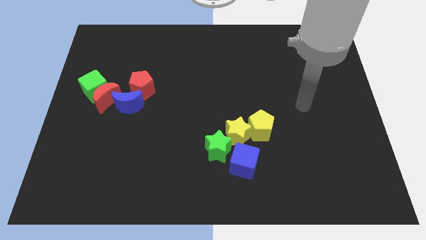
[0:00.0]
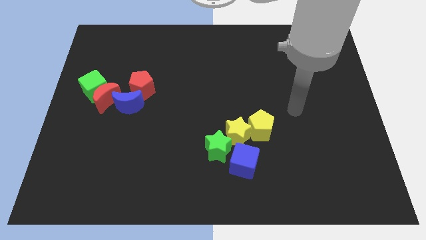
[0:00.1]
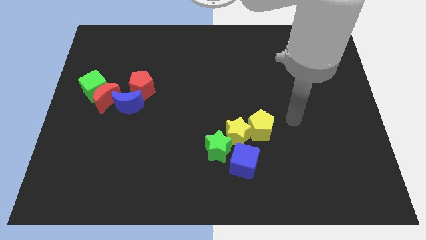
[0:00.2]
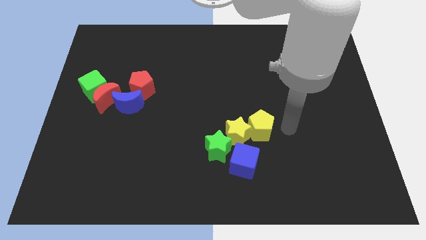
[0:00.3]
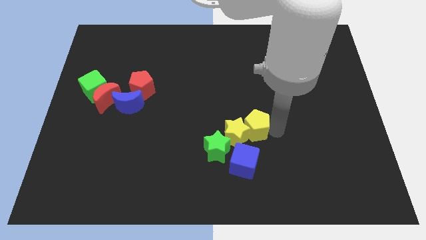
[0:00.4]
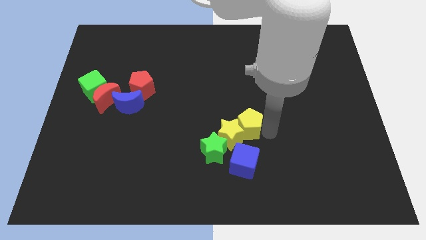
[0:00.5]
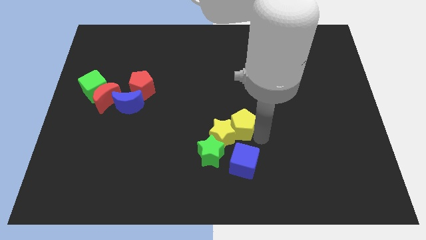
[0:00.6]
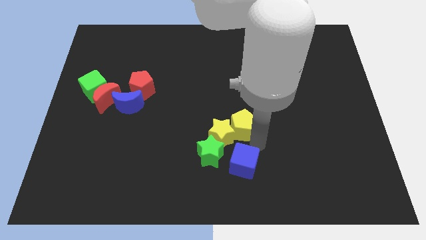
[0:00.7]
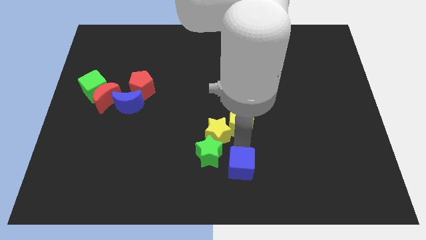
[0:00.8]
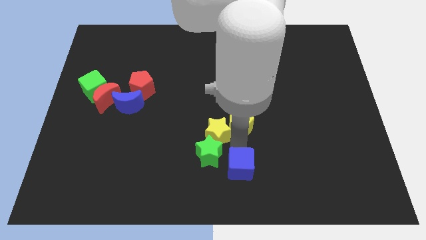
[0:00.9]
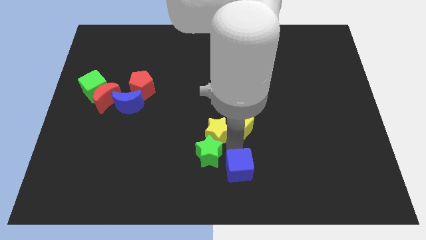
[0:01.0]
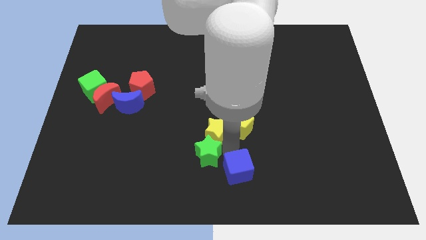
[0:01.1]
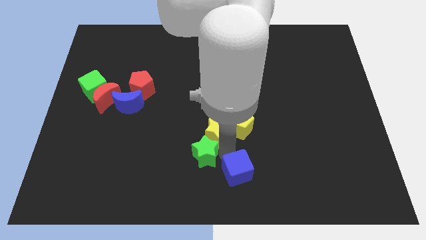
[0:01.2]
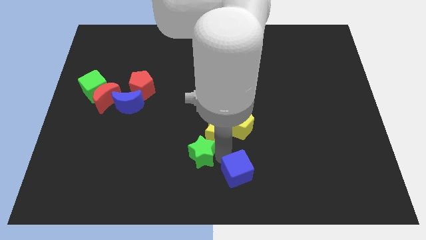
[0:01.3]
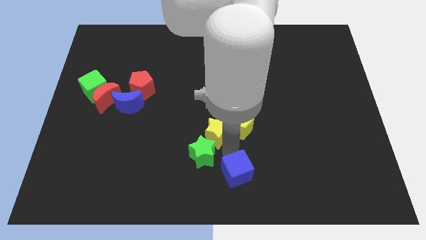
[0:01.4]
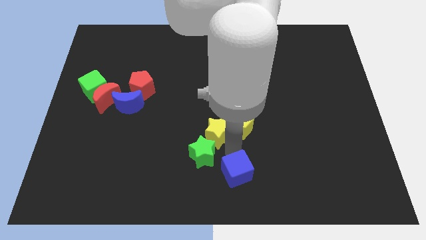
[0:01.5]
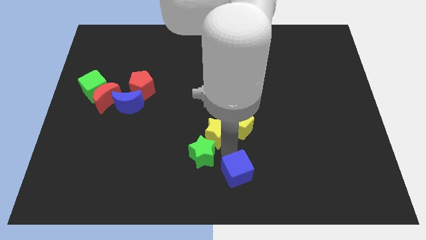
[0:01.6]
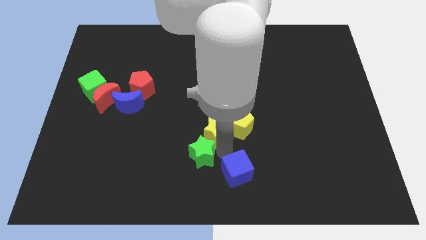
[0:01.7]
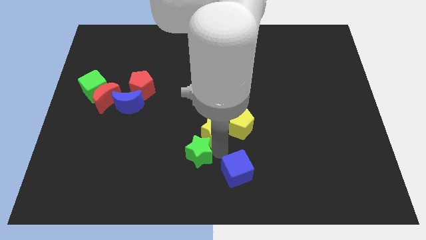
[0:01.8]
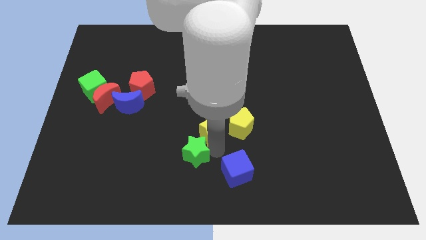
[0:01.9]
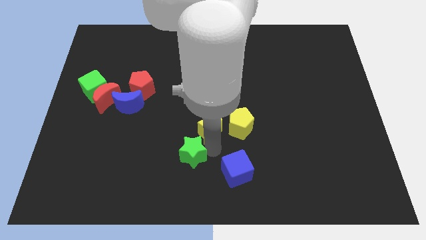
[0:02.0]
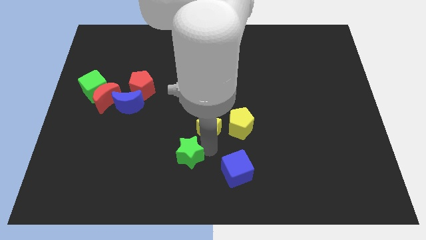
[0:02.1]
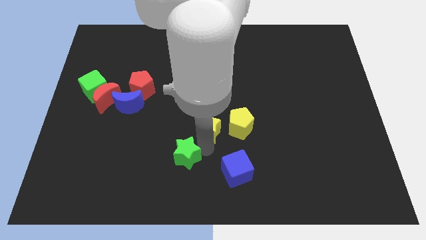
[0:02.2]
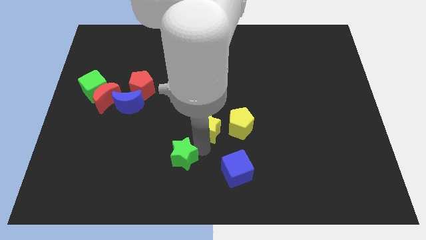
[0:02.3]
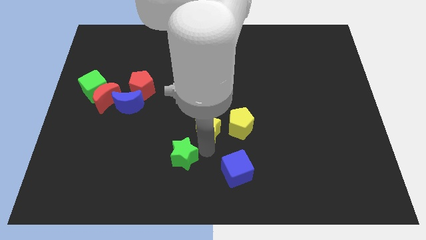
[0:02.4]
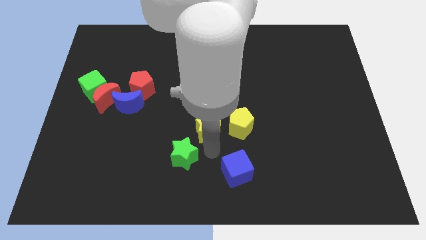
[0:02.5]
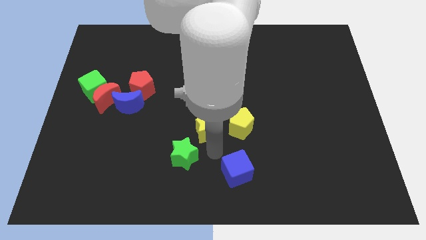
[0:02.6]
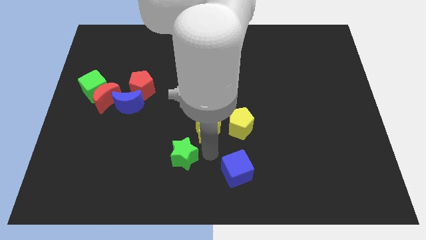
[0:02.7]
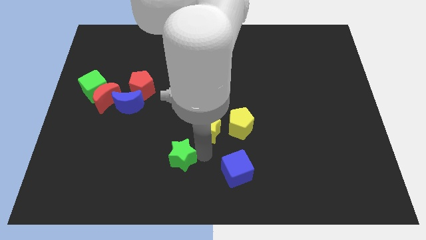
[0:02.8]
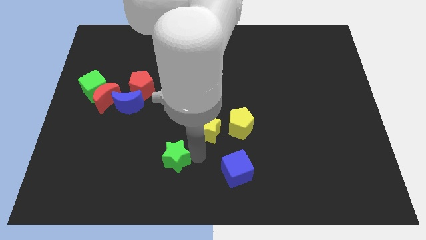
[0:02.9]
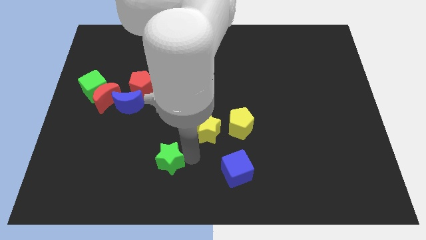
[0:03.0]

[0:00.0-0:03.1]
separate the green star from the yellow star and blue cube

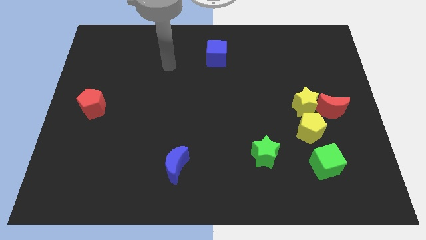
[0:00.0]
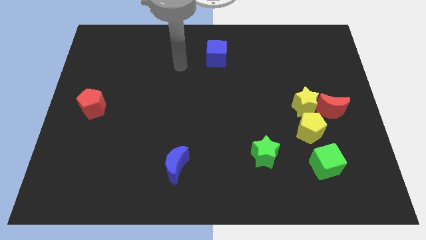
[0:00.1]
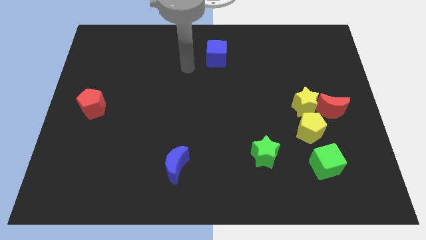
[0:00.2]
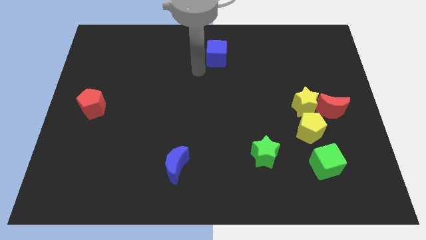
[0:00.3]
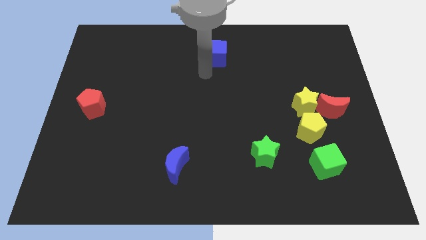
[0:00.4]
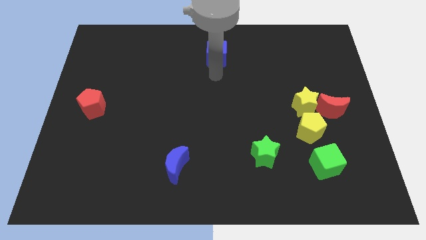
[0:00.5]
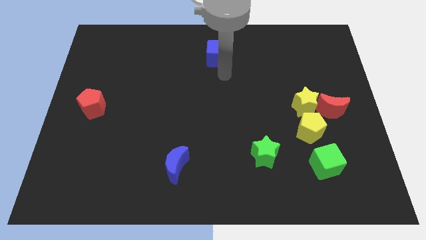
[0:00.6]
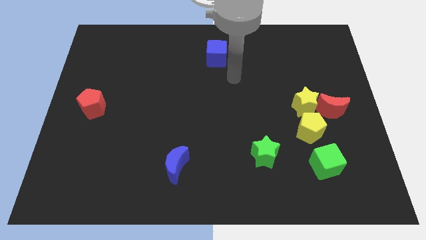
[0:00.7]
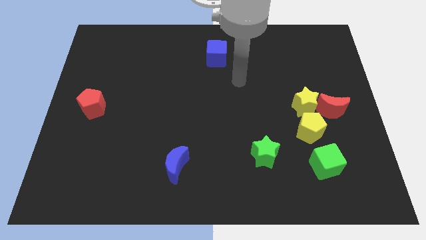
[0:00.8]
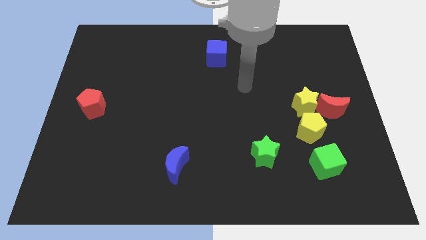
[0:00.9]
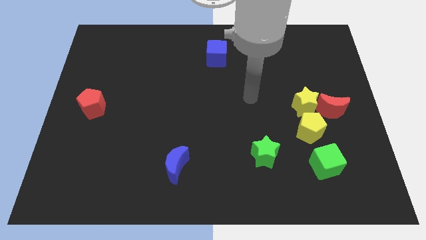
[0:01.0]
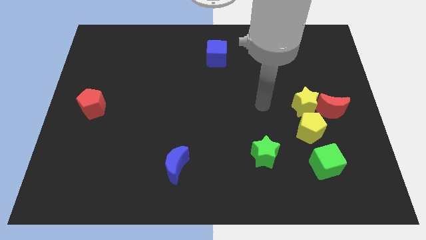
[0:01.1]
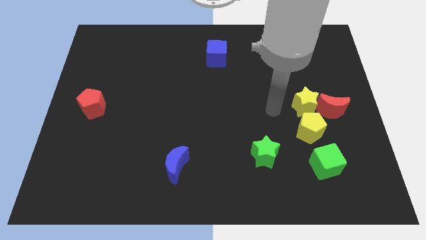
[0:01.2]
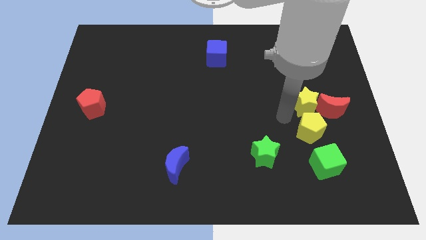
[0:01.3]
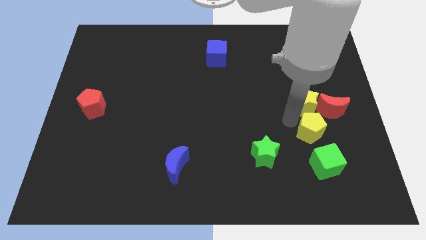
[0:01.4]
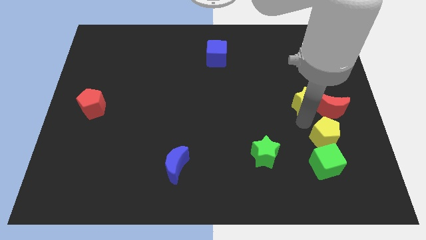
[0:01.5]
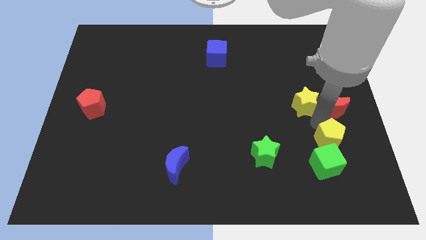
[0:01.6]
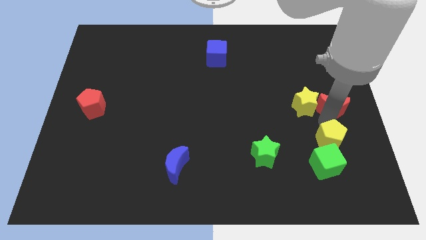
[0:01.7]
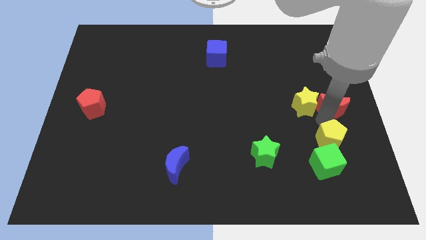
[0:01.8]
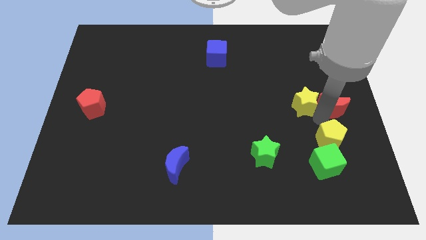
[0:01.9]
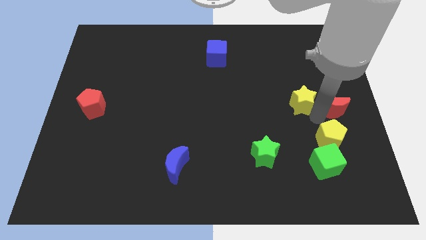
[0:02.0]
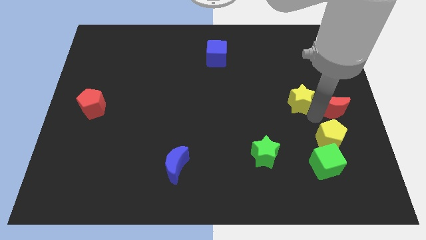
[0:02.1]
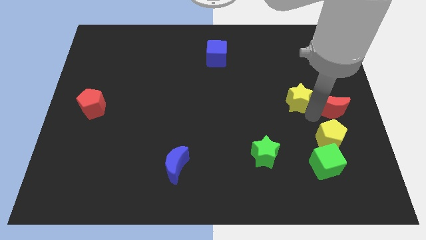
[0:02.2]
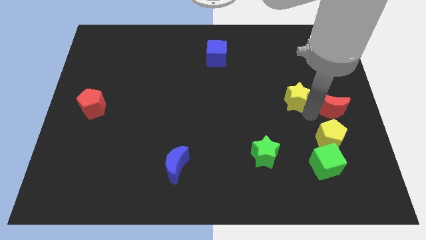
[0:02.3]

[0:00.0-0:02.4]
pull the yellow star apart from the red moon and yellow pentagon

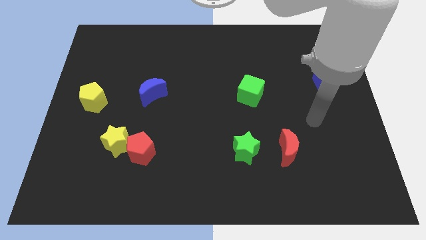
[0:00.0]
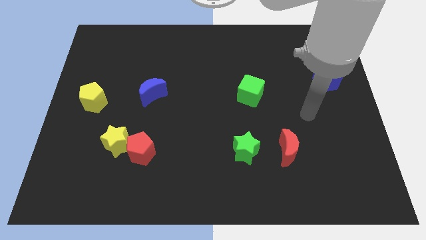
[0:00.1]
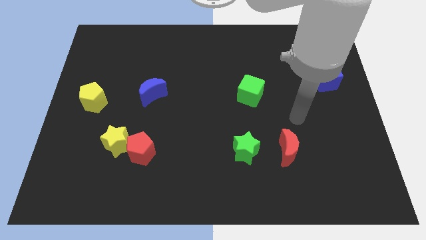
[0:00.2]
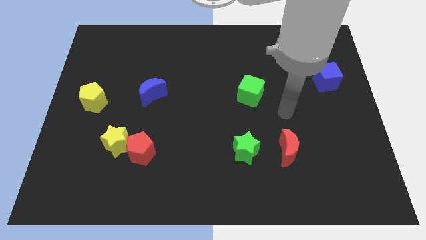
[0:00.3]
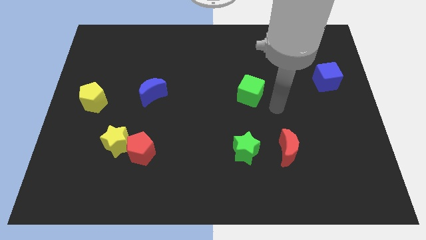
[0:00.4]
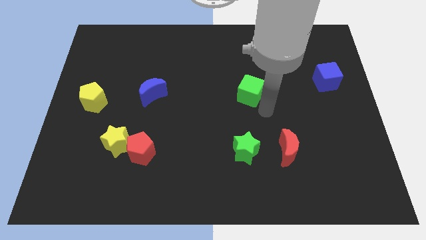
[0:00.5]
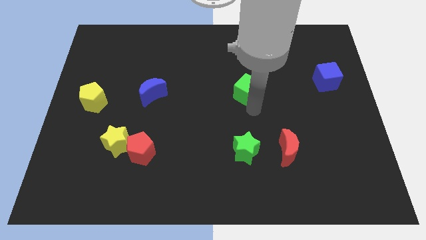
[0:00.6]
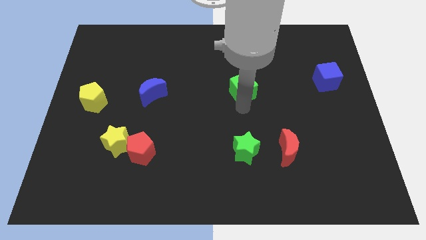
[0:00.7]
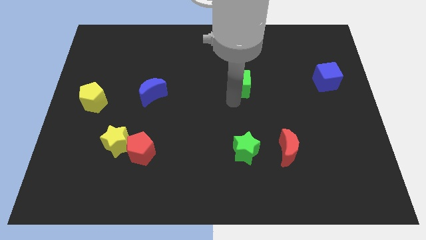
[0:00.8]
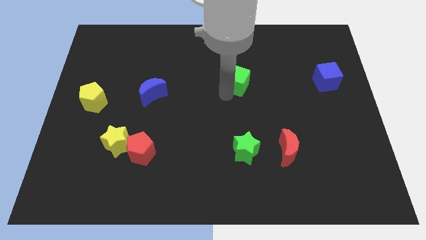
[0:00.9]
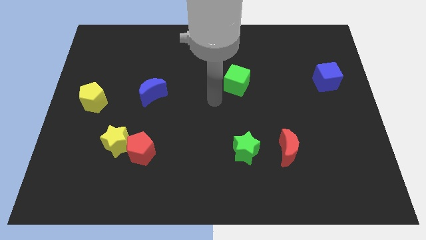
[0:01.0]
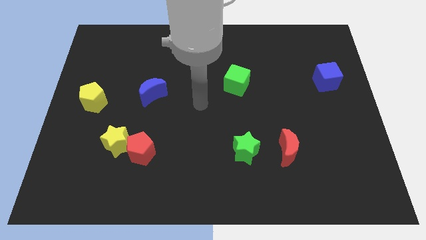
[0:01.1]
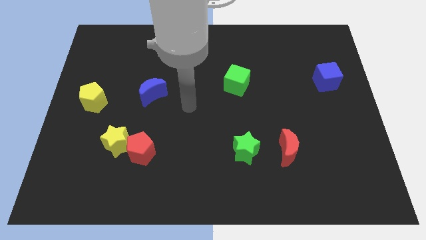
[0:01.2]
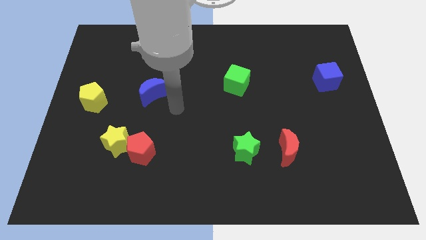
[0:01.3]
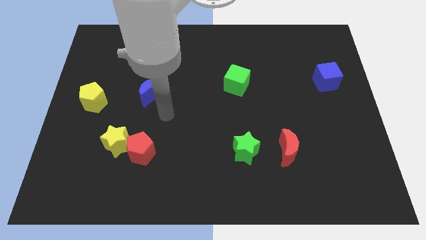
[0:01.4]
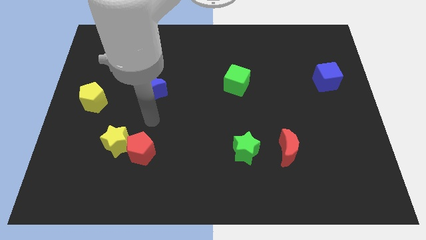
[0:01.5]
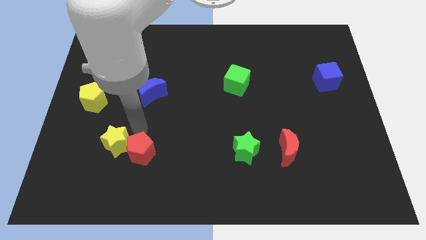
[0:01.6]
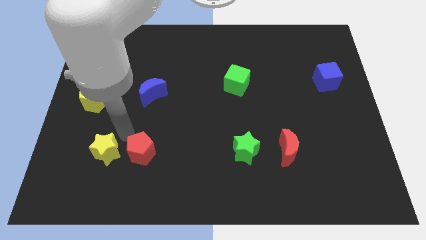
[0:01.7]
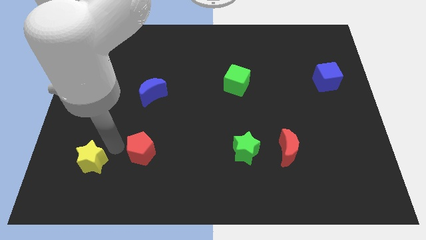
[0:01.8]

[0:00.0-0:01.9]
separate the red pentagon from the yellow star

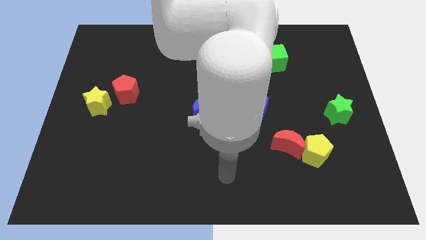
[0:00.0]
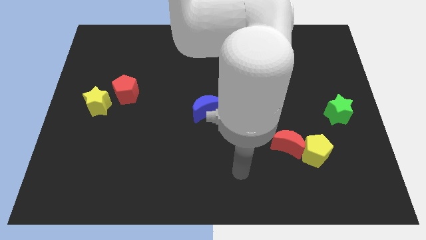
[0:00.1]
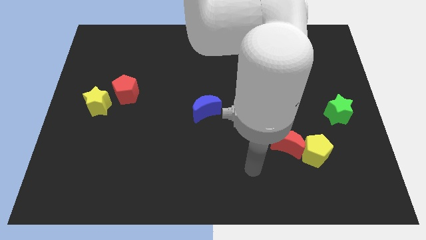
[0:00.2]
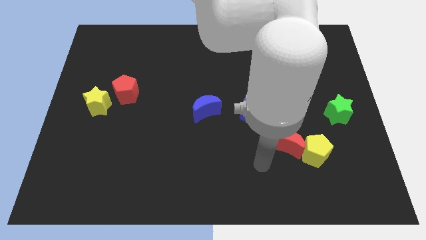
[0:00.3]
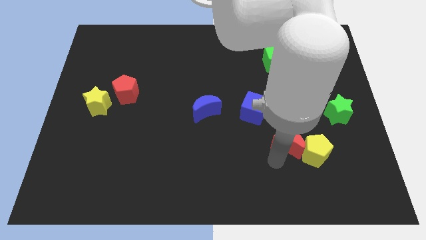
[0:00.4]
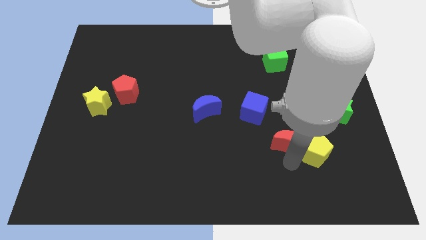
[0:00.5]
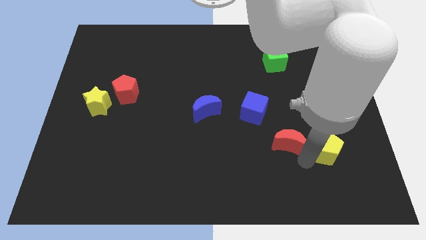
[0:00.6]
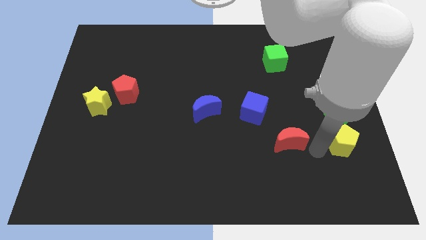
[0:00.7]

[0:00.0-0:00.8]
separate the red moon from the yellow pentagon

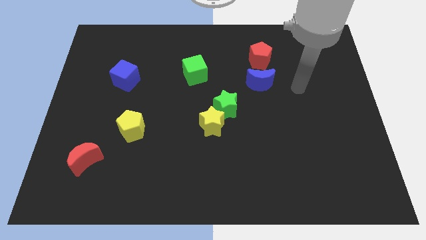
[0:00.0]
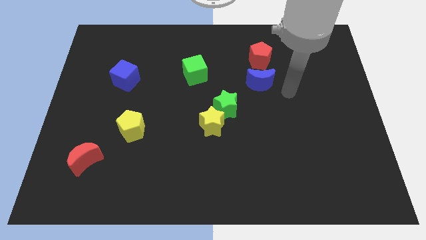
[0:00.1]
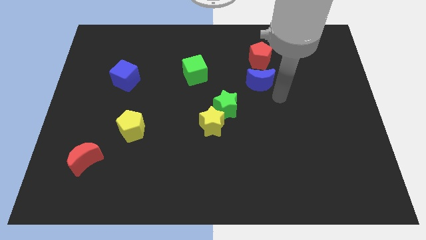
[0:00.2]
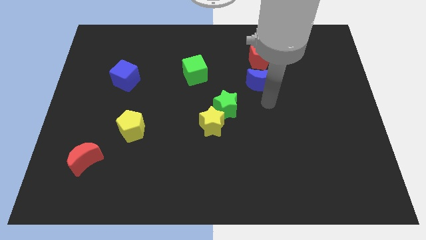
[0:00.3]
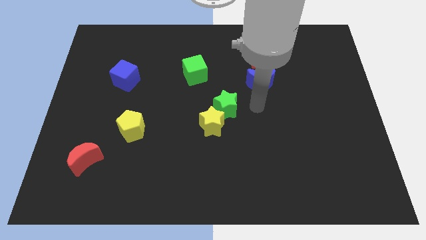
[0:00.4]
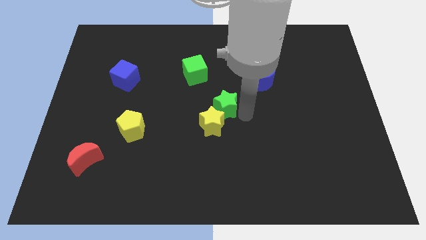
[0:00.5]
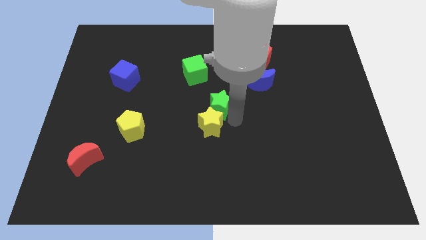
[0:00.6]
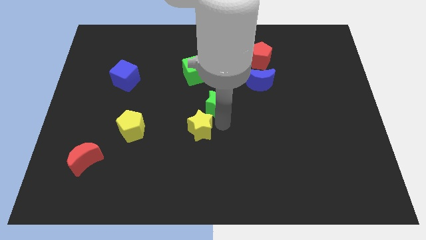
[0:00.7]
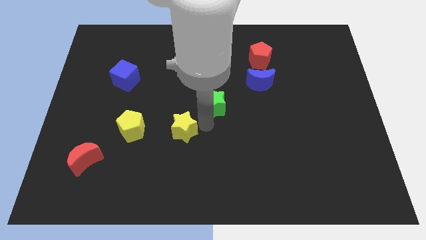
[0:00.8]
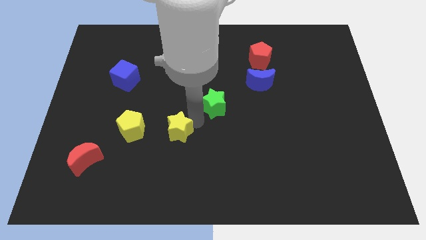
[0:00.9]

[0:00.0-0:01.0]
move the green star away from the yellow star

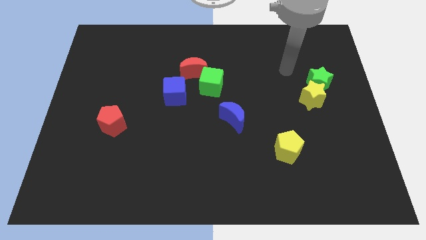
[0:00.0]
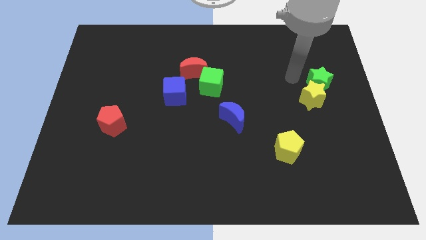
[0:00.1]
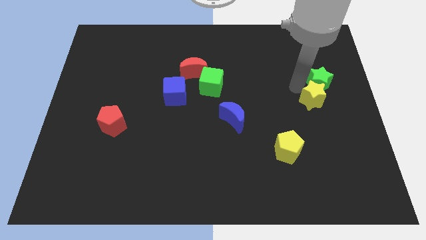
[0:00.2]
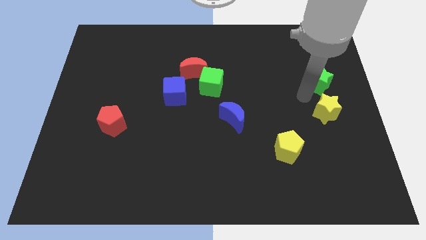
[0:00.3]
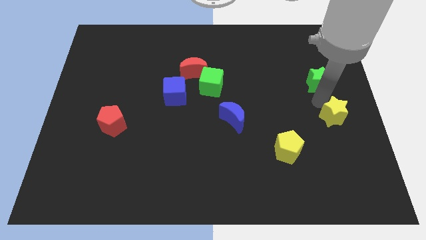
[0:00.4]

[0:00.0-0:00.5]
pull the green star apart from the yellow star
